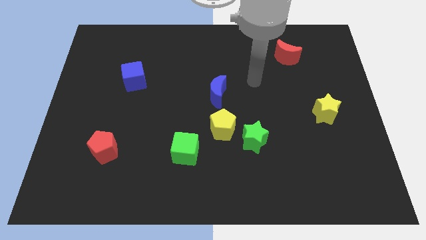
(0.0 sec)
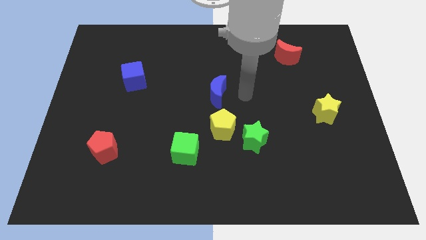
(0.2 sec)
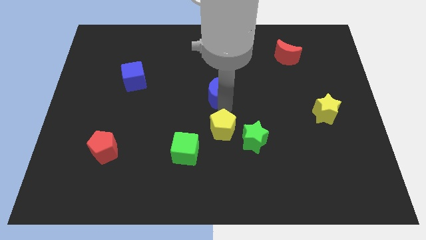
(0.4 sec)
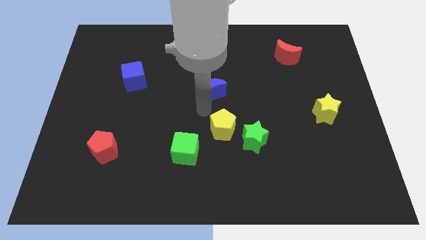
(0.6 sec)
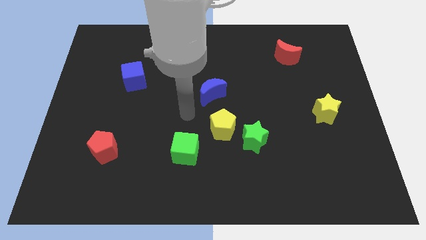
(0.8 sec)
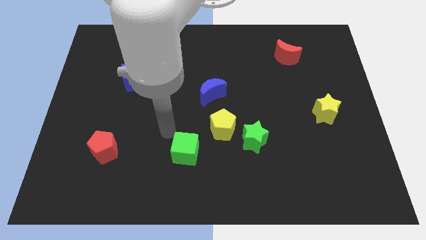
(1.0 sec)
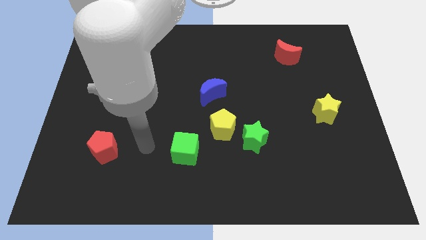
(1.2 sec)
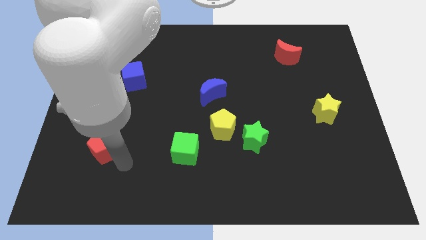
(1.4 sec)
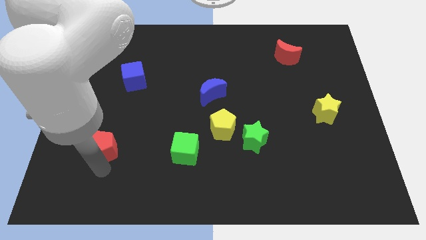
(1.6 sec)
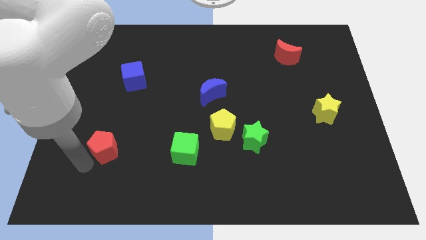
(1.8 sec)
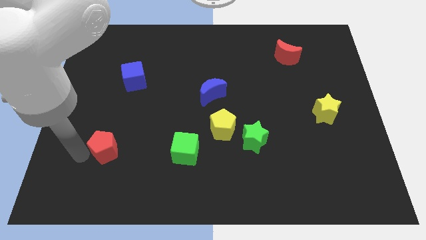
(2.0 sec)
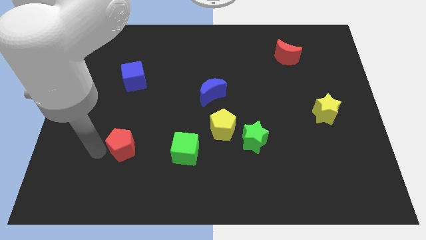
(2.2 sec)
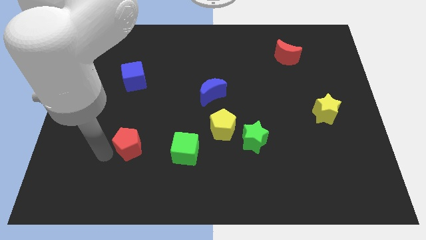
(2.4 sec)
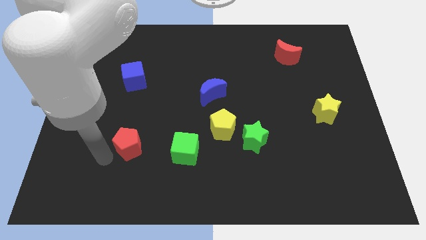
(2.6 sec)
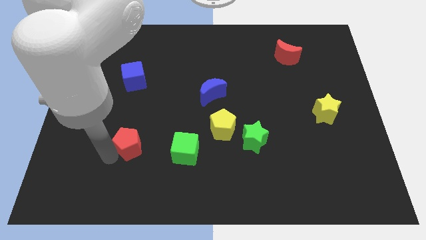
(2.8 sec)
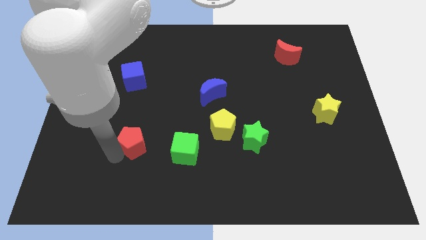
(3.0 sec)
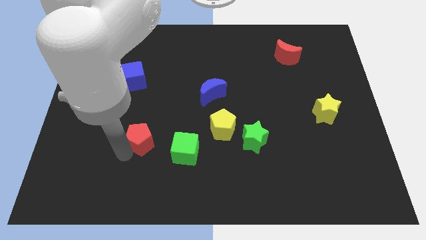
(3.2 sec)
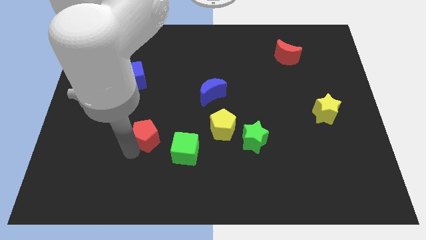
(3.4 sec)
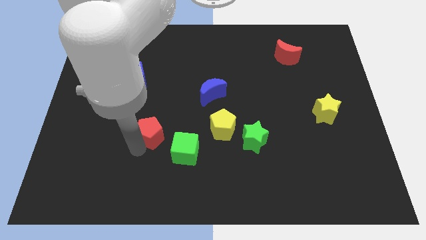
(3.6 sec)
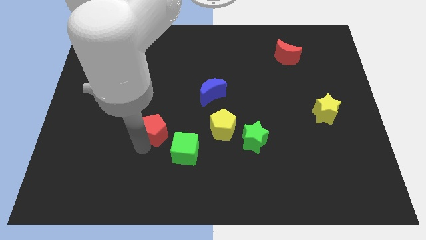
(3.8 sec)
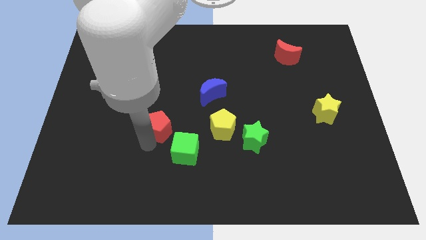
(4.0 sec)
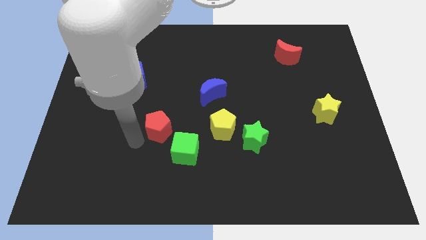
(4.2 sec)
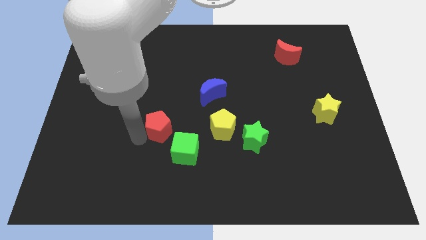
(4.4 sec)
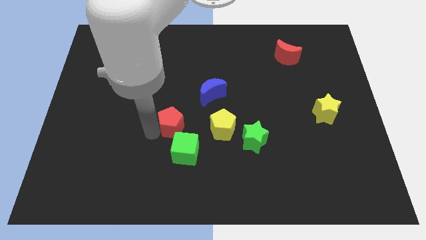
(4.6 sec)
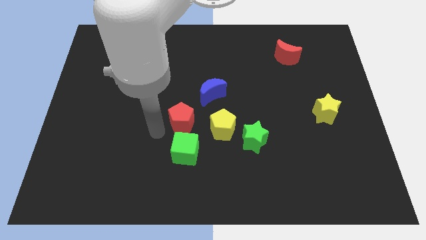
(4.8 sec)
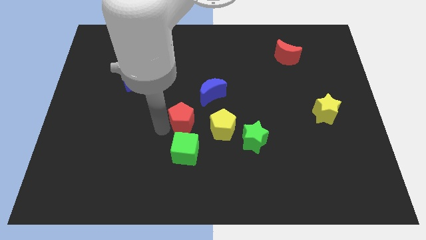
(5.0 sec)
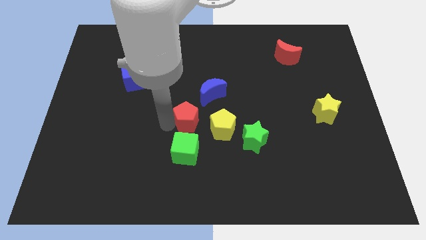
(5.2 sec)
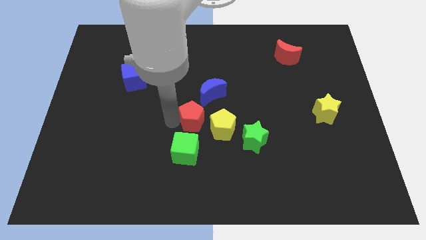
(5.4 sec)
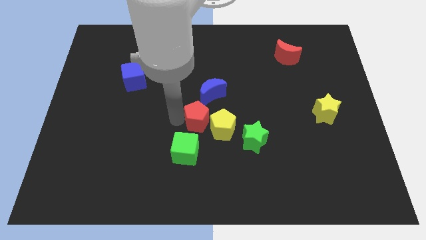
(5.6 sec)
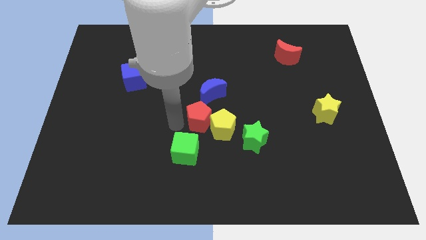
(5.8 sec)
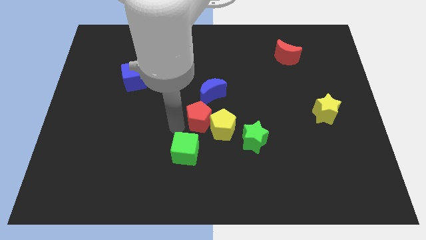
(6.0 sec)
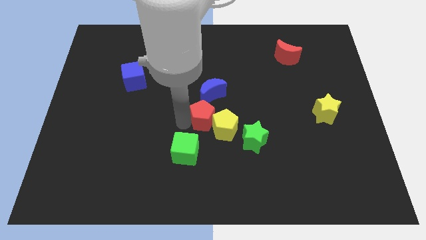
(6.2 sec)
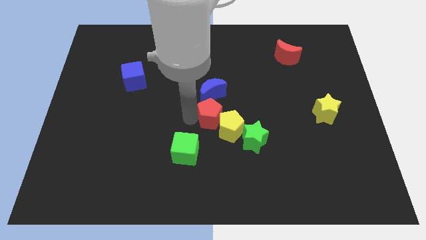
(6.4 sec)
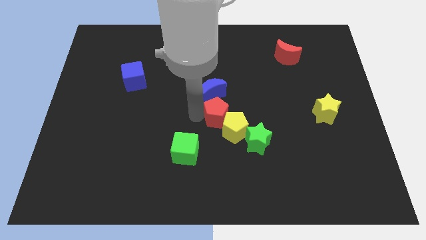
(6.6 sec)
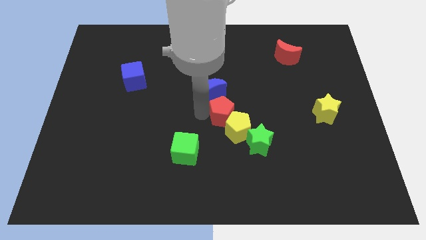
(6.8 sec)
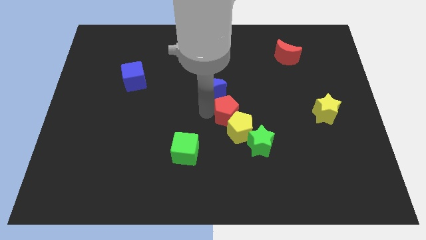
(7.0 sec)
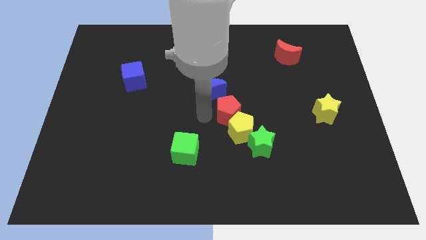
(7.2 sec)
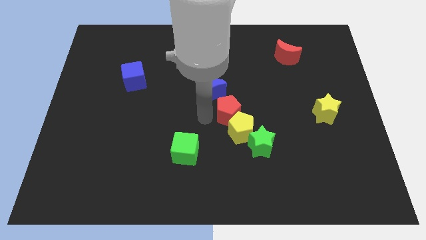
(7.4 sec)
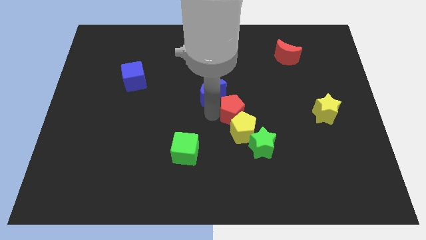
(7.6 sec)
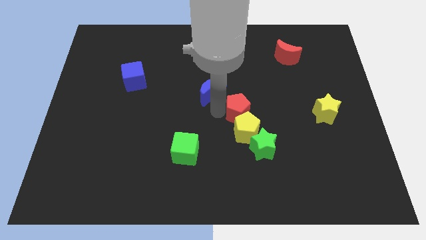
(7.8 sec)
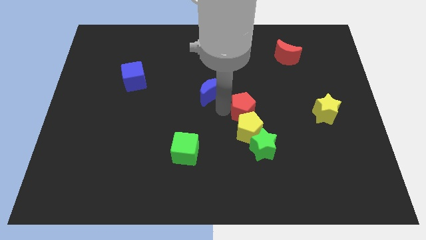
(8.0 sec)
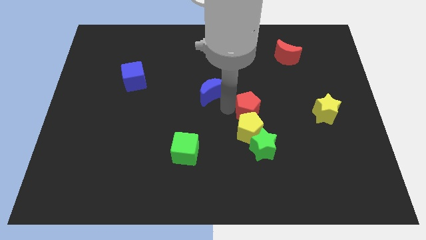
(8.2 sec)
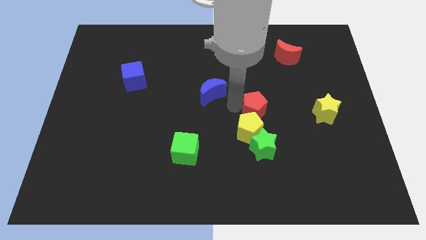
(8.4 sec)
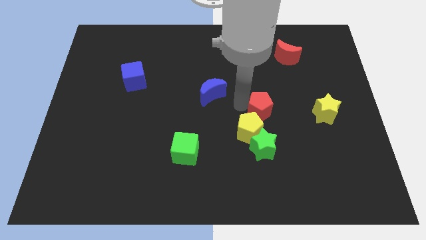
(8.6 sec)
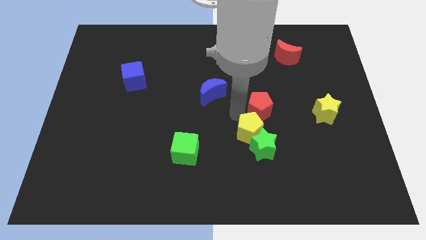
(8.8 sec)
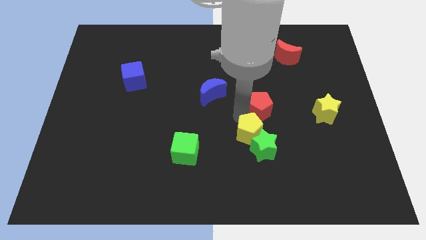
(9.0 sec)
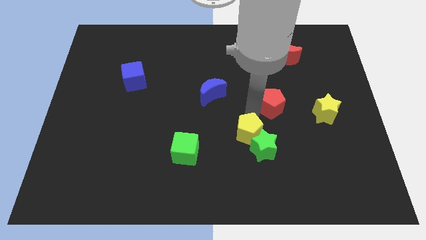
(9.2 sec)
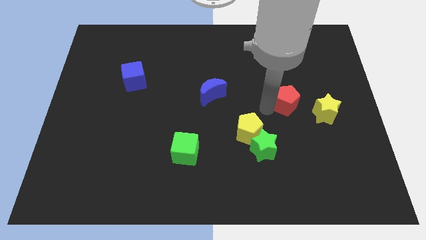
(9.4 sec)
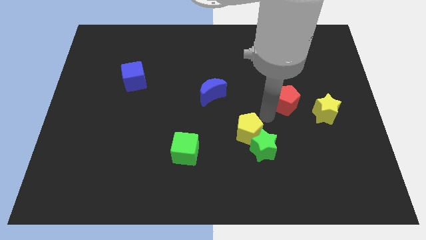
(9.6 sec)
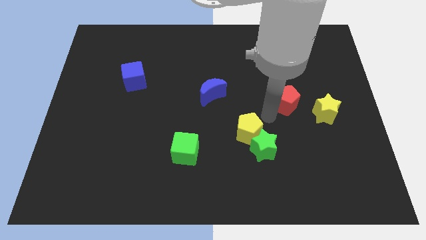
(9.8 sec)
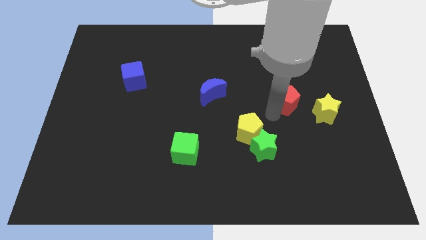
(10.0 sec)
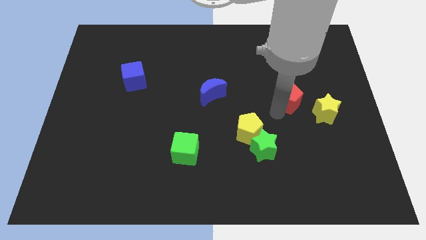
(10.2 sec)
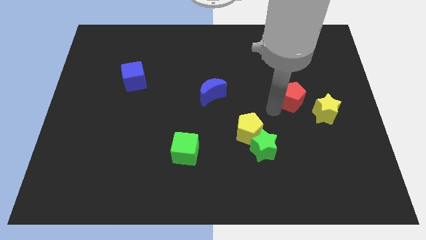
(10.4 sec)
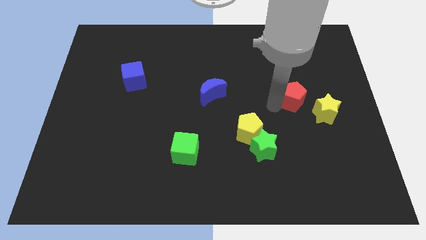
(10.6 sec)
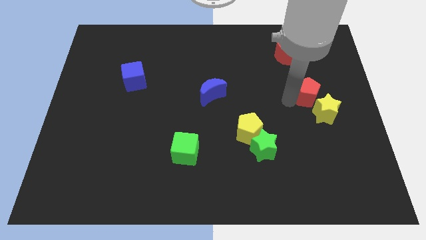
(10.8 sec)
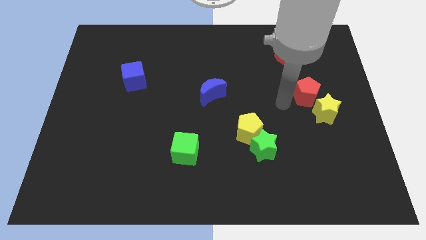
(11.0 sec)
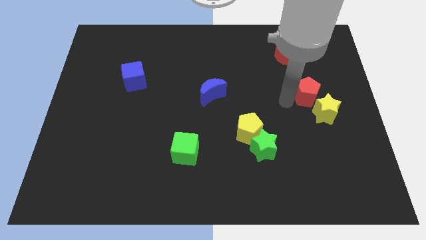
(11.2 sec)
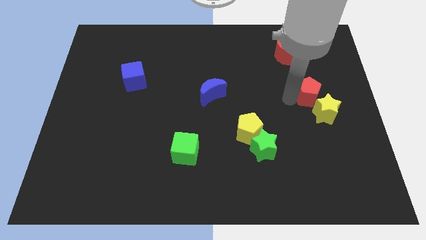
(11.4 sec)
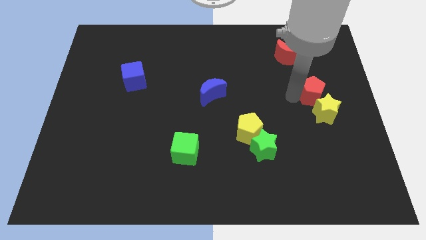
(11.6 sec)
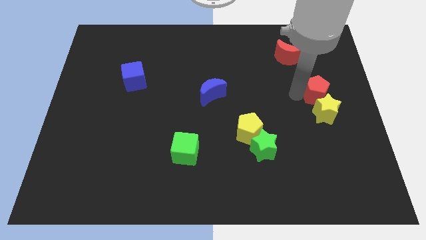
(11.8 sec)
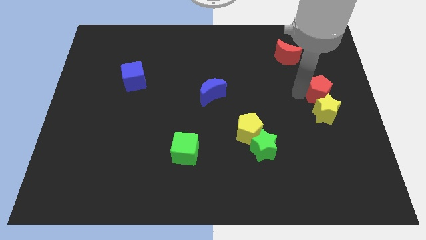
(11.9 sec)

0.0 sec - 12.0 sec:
move the red pentagon to the right side

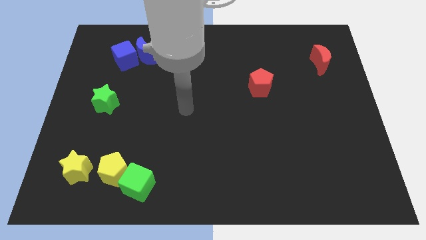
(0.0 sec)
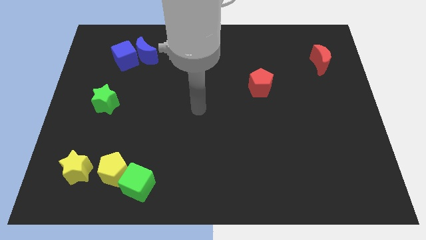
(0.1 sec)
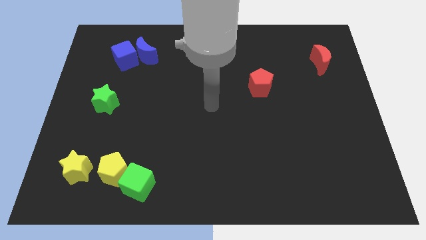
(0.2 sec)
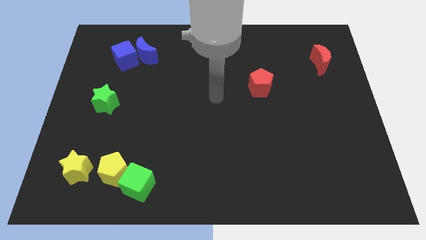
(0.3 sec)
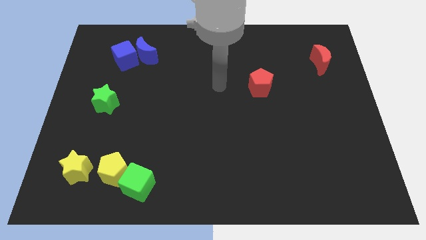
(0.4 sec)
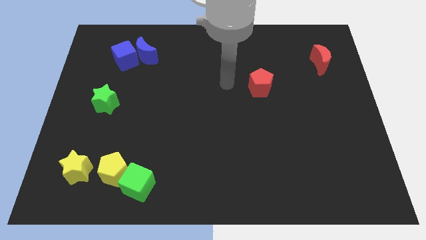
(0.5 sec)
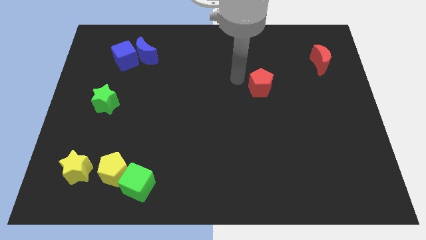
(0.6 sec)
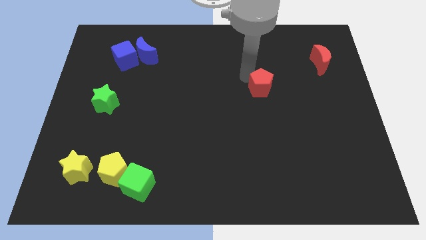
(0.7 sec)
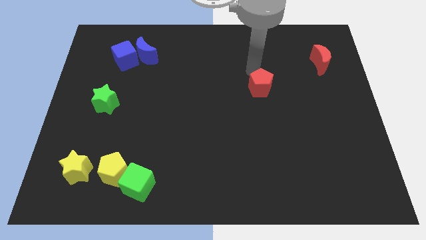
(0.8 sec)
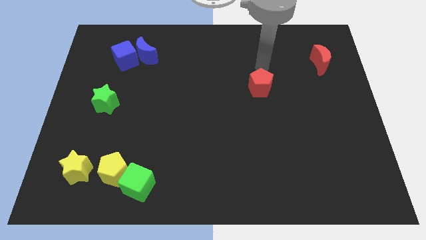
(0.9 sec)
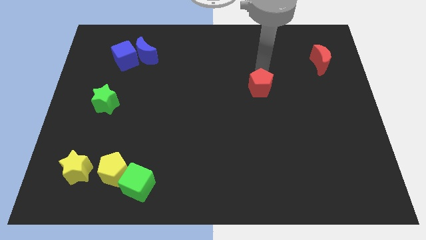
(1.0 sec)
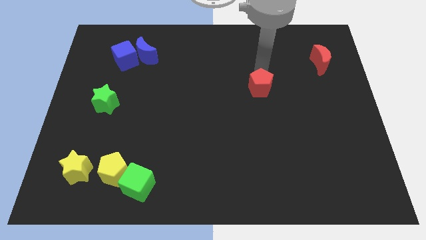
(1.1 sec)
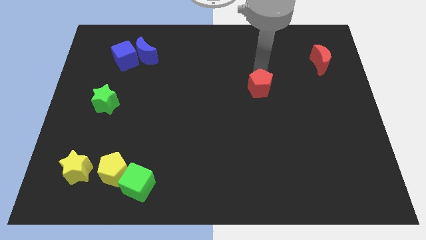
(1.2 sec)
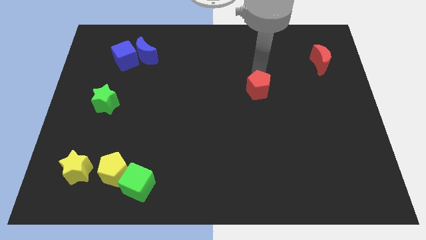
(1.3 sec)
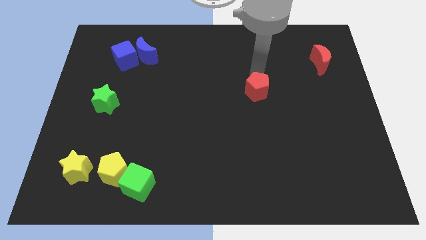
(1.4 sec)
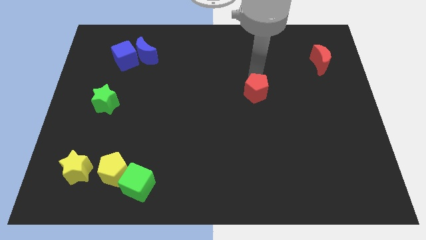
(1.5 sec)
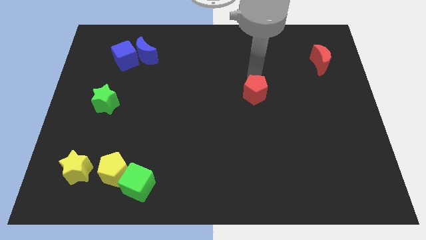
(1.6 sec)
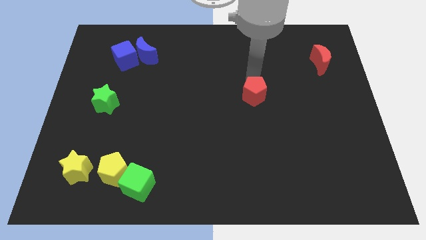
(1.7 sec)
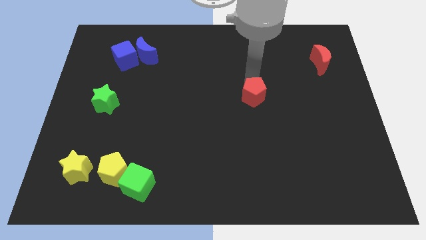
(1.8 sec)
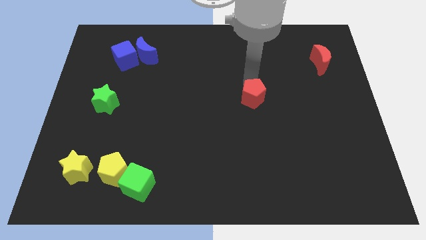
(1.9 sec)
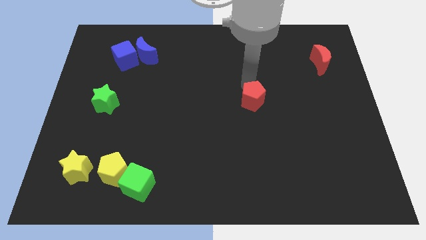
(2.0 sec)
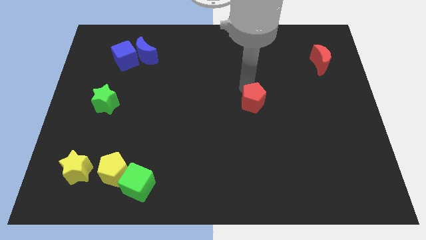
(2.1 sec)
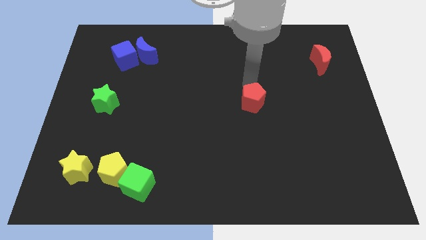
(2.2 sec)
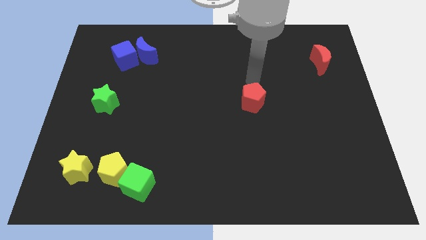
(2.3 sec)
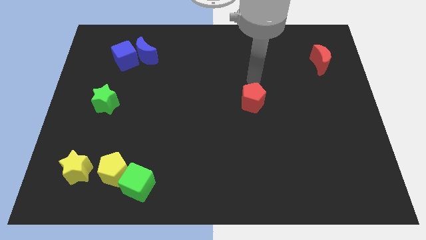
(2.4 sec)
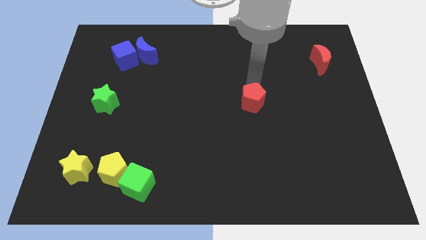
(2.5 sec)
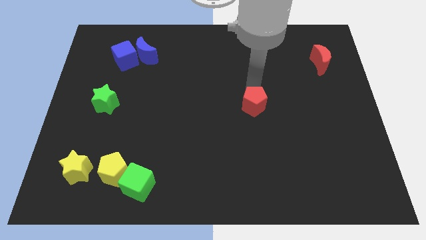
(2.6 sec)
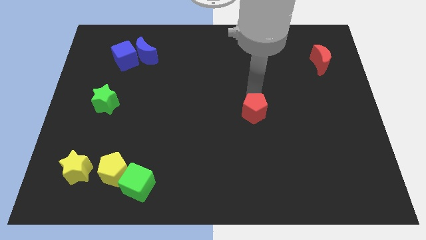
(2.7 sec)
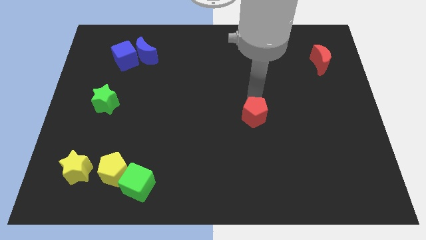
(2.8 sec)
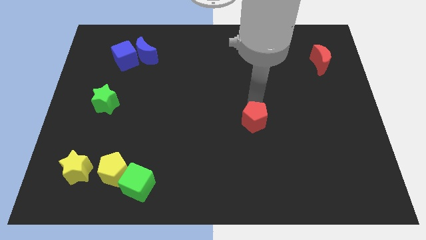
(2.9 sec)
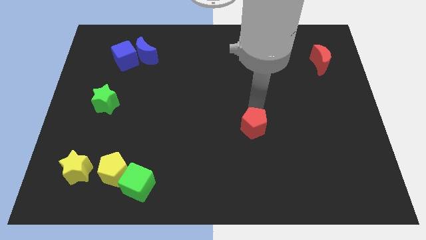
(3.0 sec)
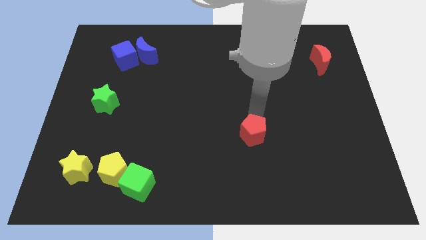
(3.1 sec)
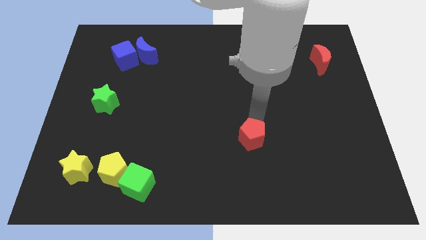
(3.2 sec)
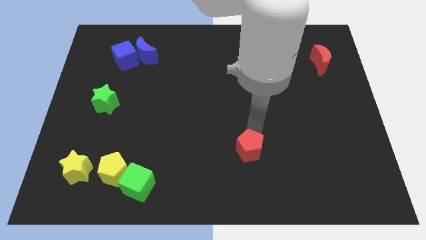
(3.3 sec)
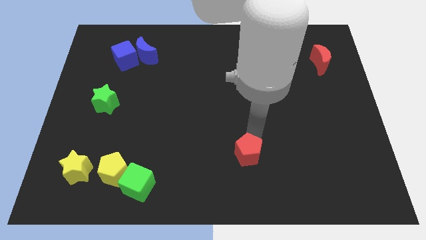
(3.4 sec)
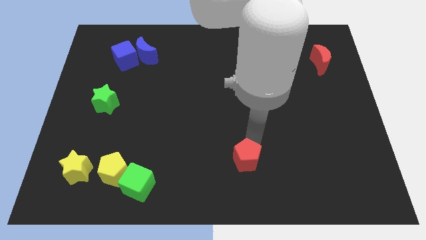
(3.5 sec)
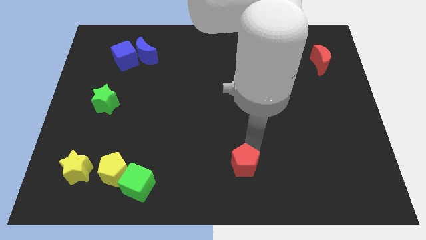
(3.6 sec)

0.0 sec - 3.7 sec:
put the red pentagon to the bottom side
